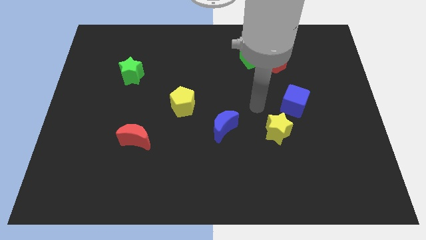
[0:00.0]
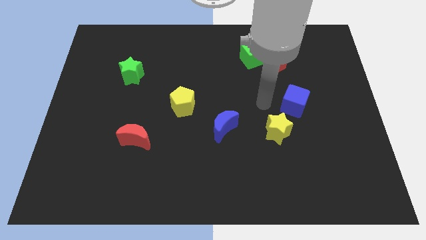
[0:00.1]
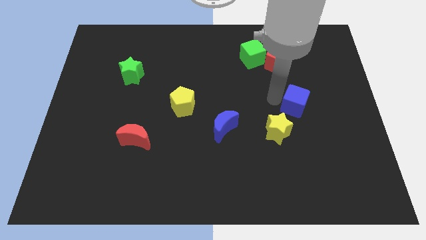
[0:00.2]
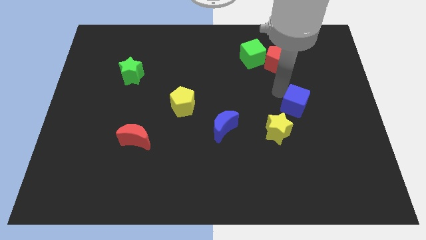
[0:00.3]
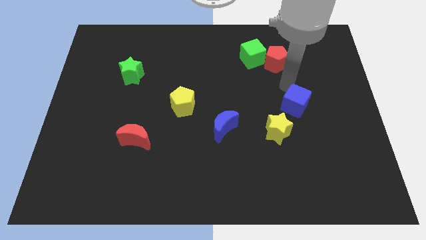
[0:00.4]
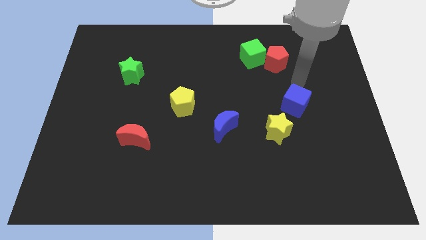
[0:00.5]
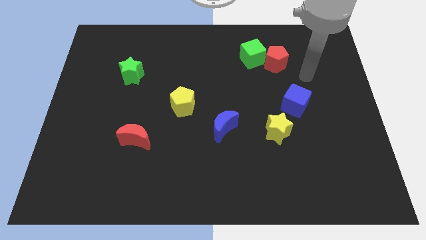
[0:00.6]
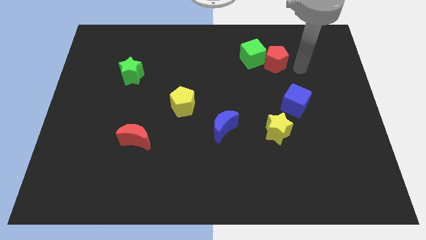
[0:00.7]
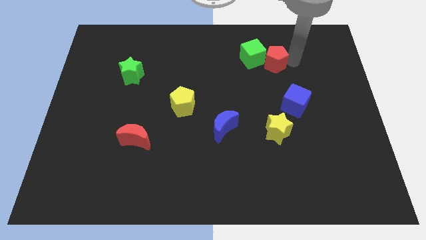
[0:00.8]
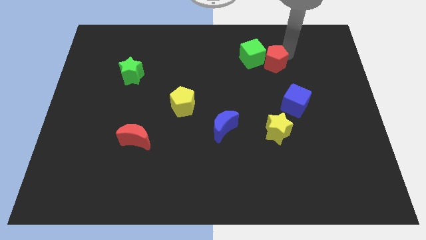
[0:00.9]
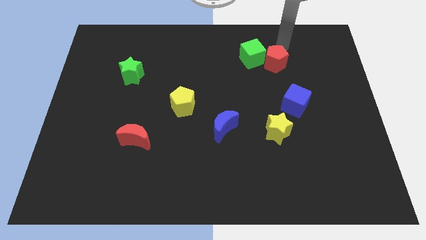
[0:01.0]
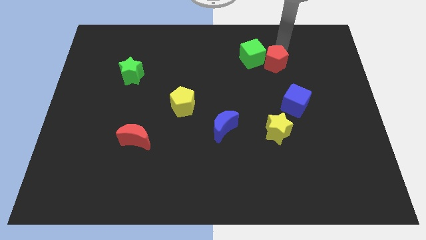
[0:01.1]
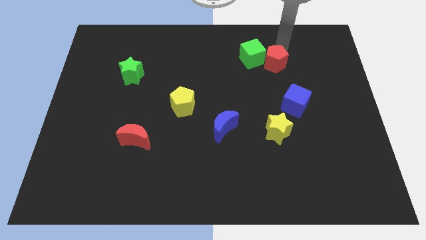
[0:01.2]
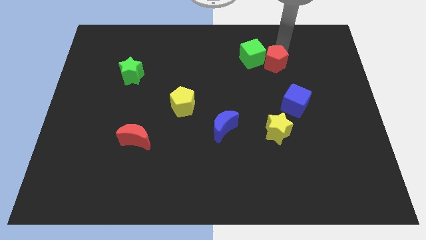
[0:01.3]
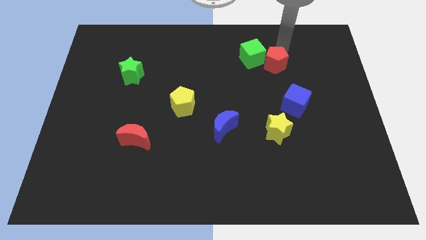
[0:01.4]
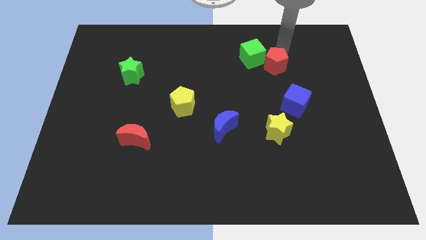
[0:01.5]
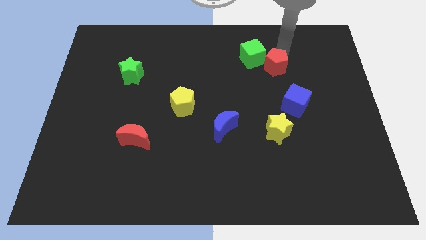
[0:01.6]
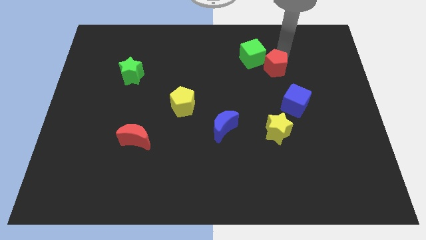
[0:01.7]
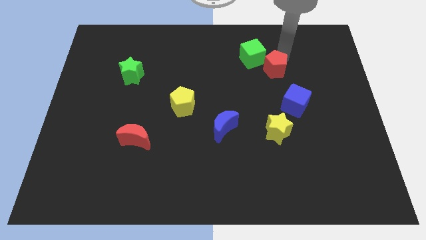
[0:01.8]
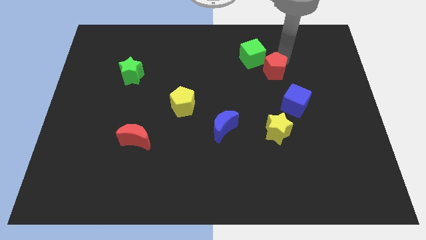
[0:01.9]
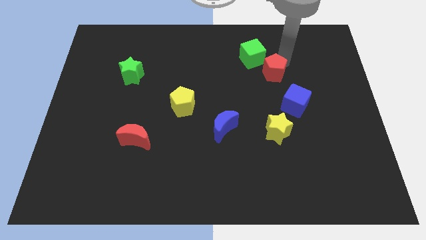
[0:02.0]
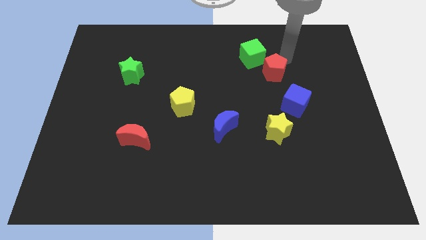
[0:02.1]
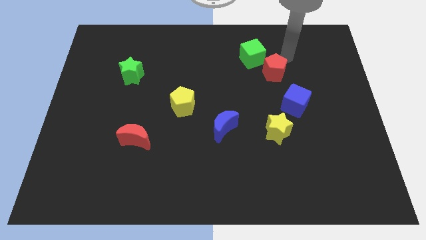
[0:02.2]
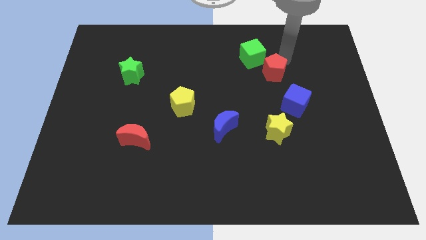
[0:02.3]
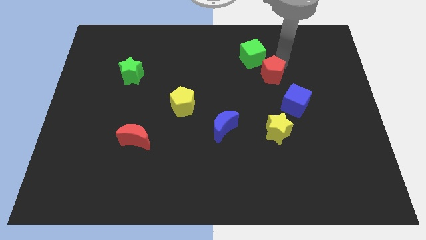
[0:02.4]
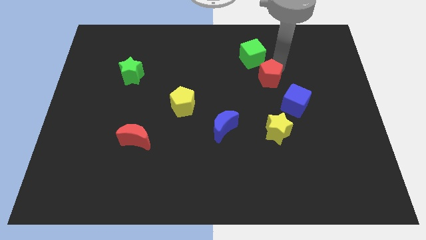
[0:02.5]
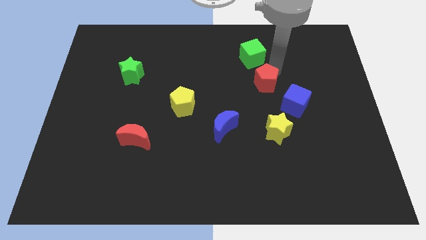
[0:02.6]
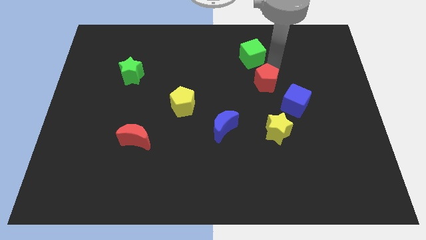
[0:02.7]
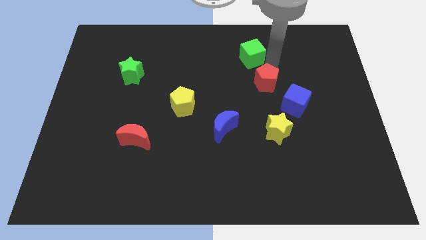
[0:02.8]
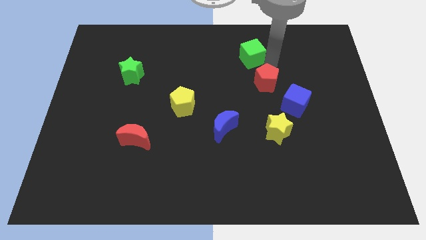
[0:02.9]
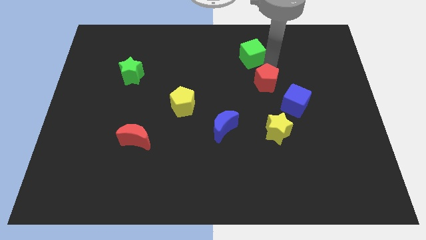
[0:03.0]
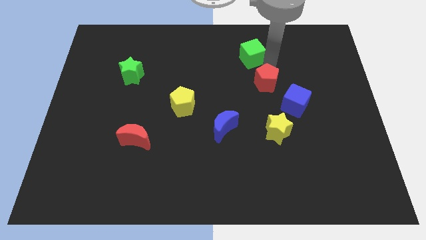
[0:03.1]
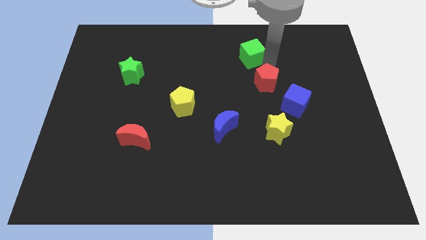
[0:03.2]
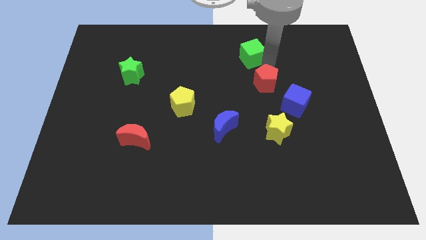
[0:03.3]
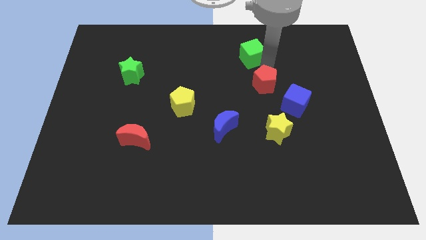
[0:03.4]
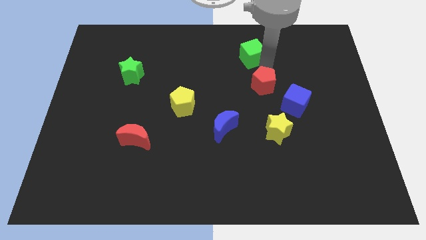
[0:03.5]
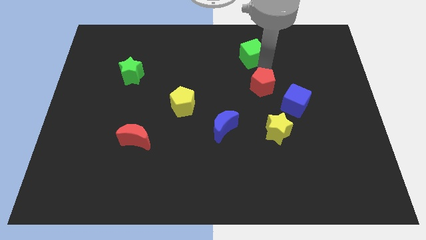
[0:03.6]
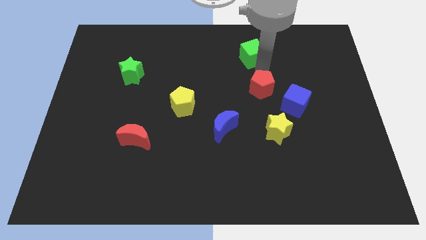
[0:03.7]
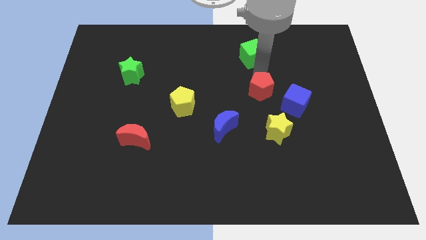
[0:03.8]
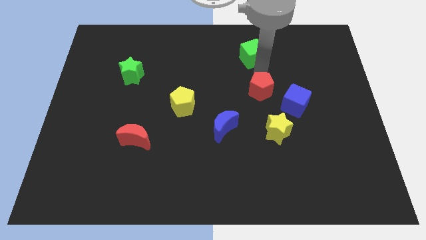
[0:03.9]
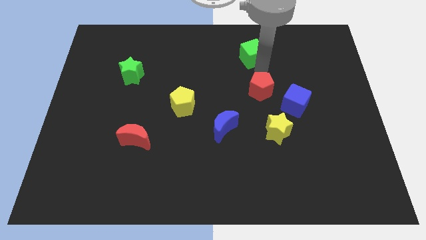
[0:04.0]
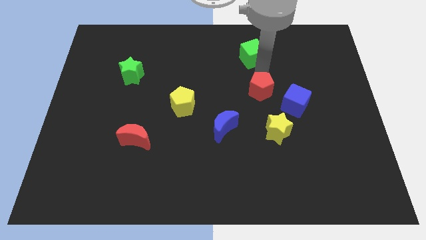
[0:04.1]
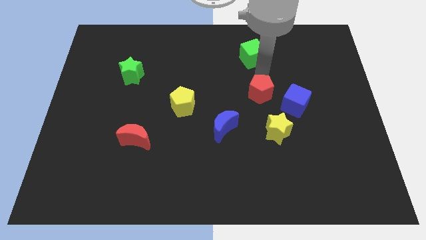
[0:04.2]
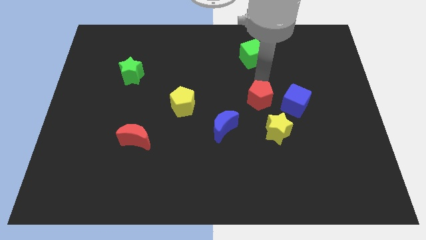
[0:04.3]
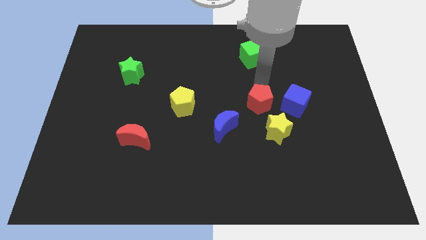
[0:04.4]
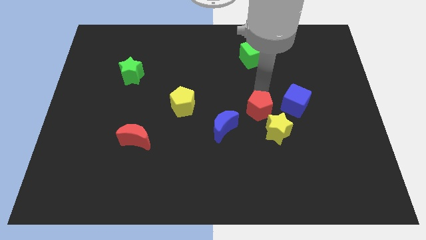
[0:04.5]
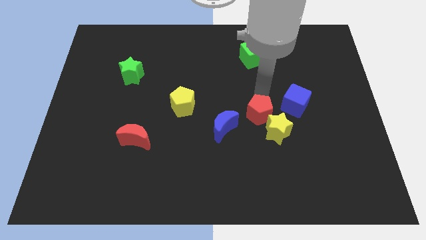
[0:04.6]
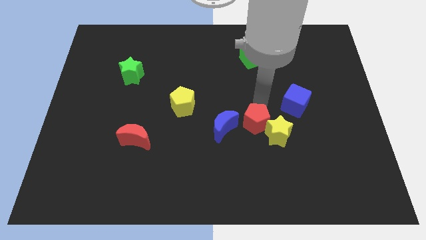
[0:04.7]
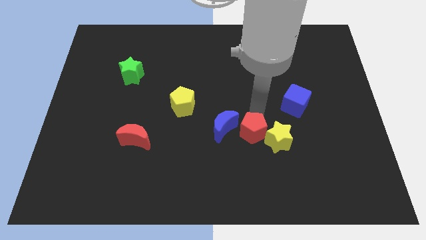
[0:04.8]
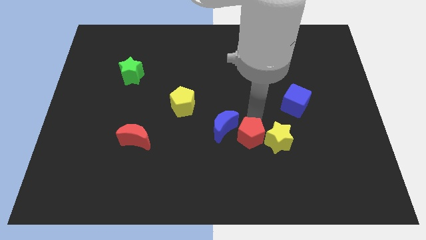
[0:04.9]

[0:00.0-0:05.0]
slide the red pentagon downwards

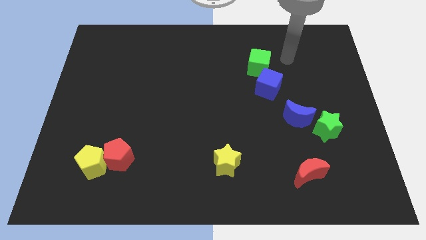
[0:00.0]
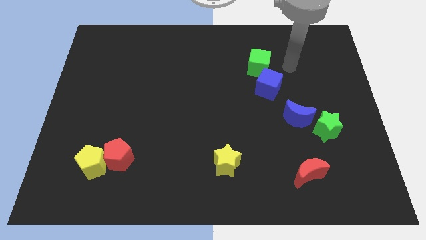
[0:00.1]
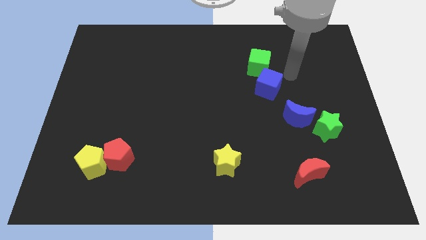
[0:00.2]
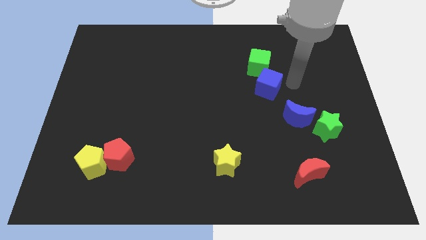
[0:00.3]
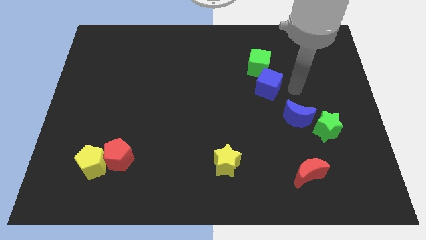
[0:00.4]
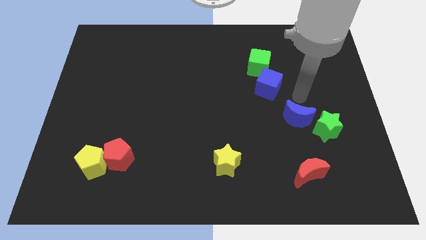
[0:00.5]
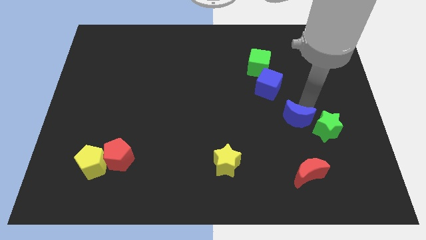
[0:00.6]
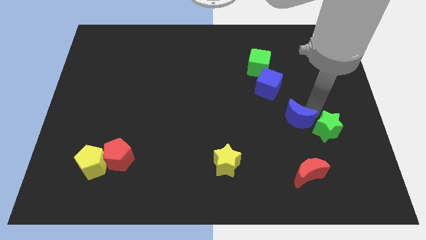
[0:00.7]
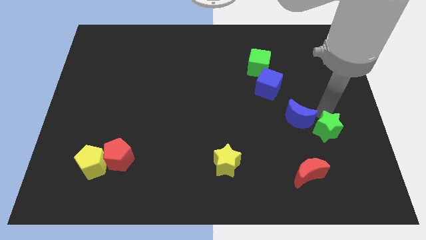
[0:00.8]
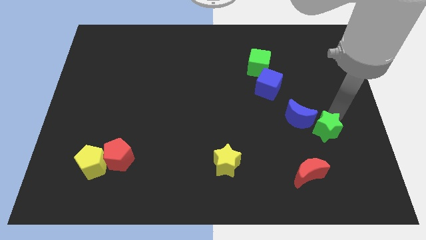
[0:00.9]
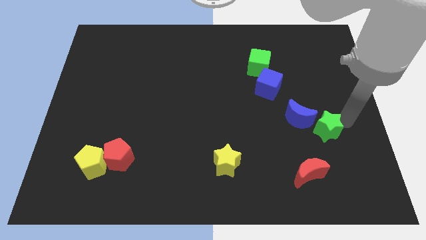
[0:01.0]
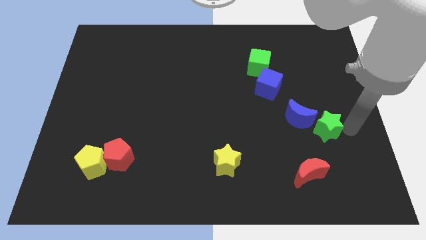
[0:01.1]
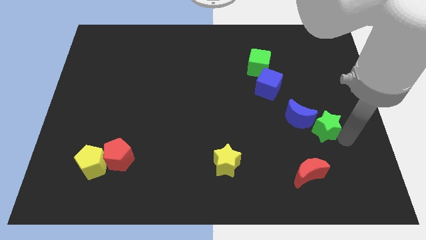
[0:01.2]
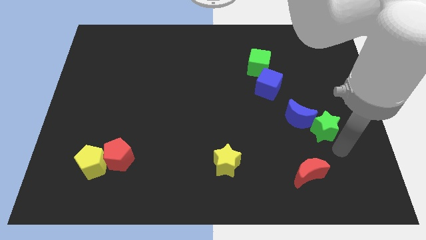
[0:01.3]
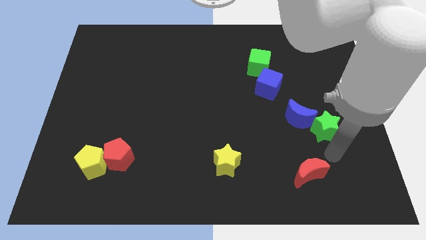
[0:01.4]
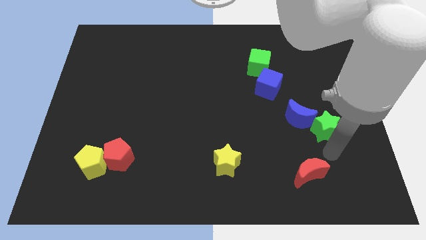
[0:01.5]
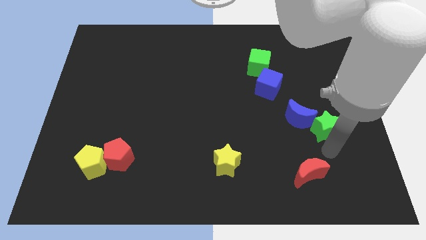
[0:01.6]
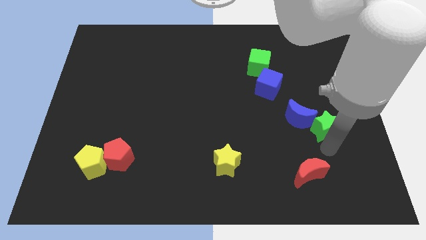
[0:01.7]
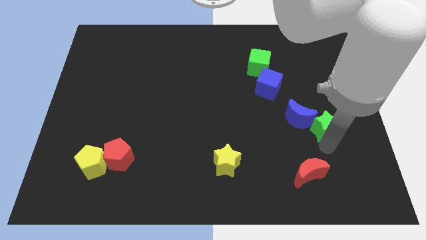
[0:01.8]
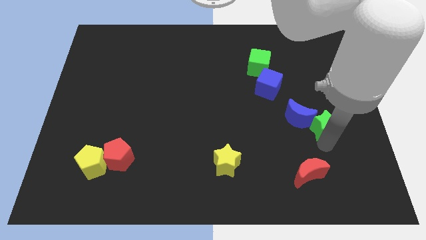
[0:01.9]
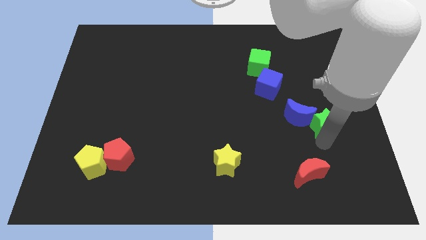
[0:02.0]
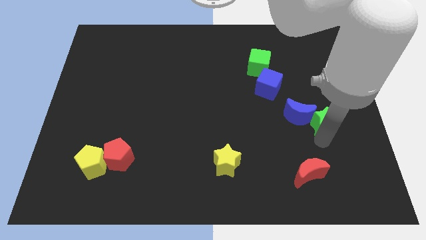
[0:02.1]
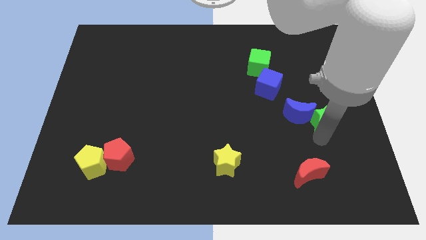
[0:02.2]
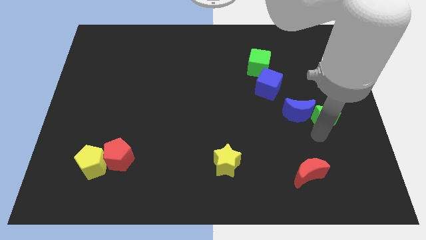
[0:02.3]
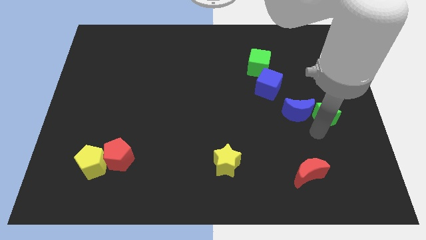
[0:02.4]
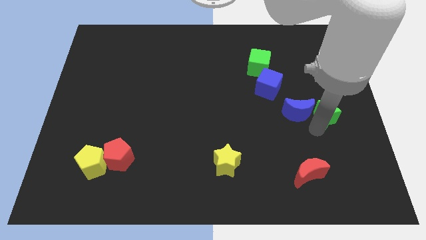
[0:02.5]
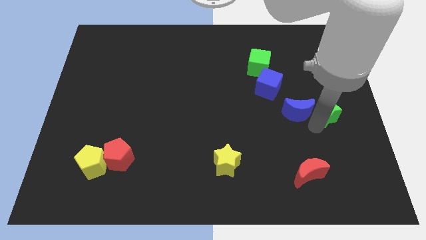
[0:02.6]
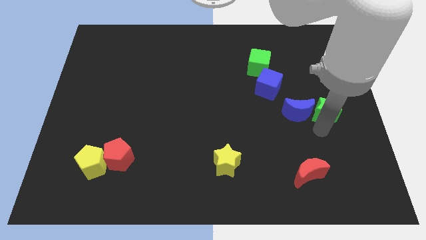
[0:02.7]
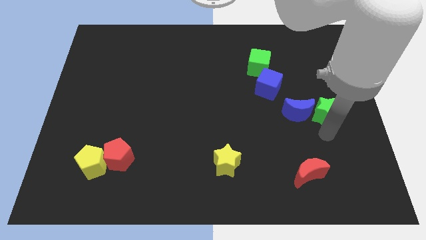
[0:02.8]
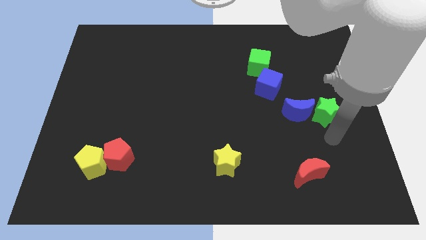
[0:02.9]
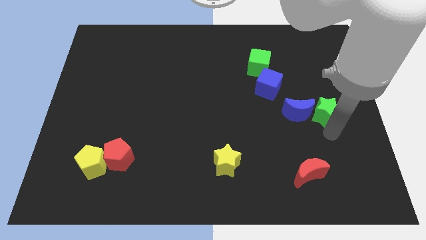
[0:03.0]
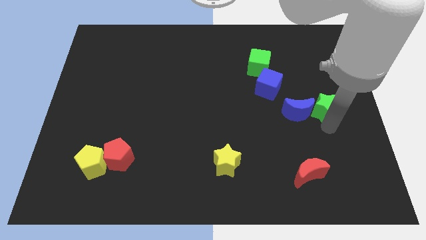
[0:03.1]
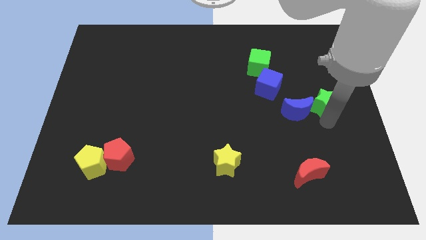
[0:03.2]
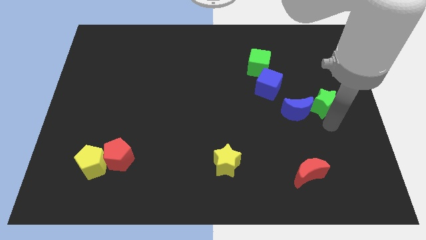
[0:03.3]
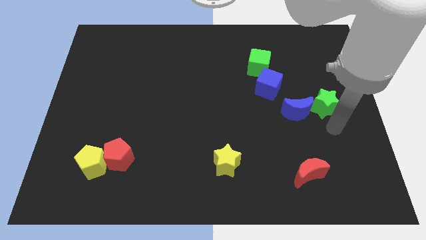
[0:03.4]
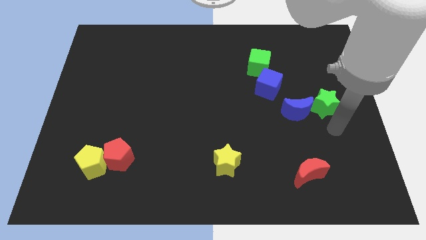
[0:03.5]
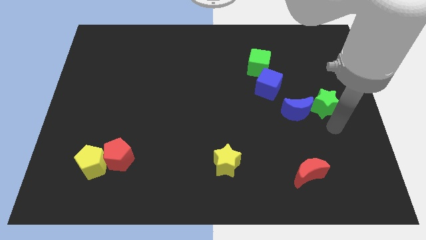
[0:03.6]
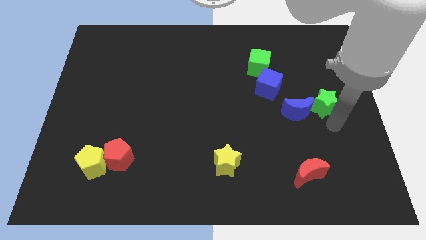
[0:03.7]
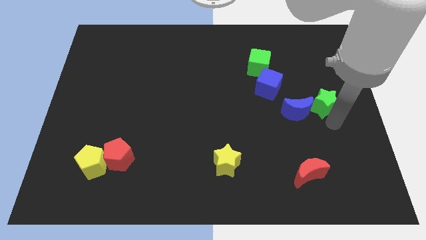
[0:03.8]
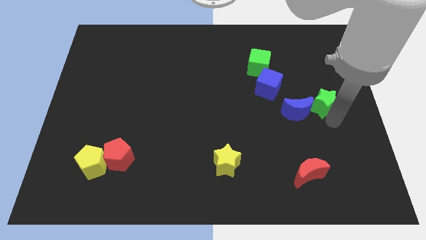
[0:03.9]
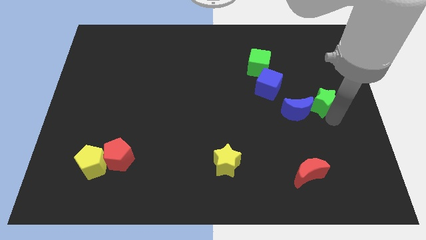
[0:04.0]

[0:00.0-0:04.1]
push the green star upwards a little bit
